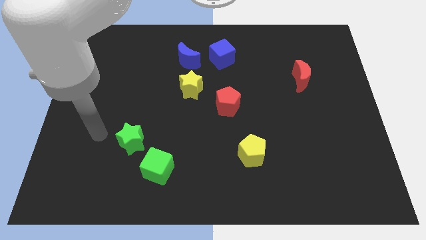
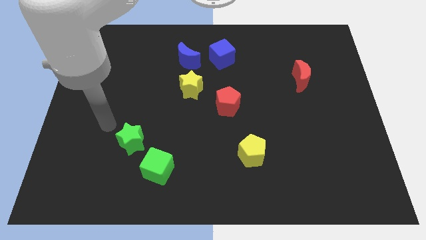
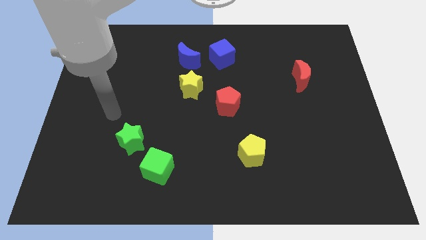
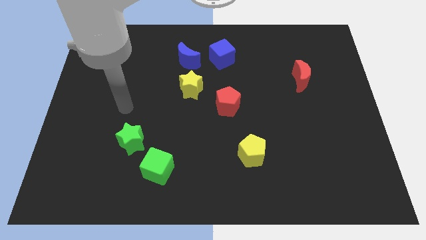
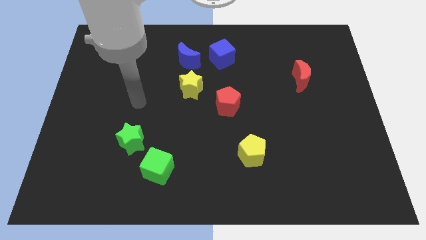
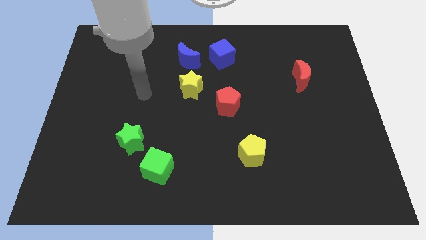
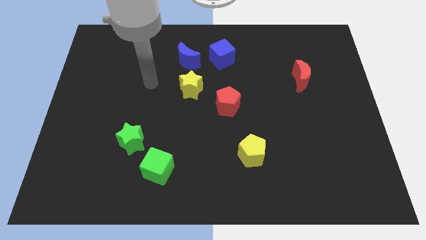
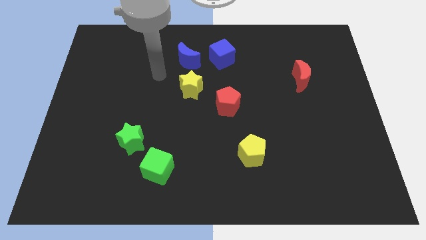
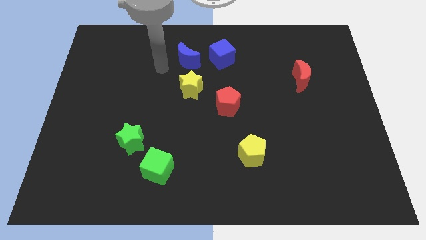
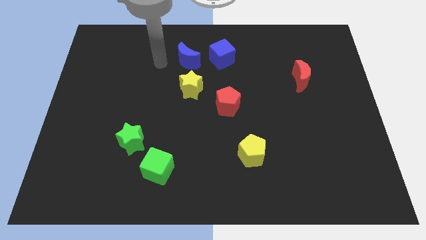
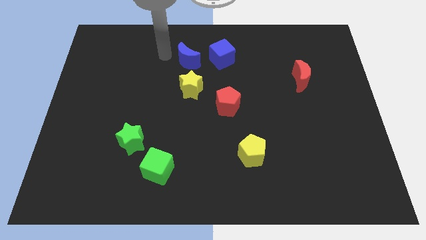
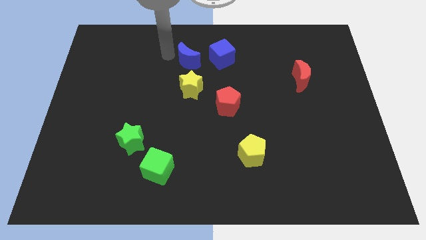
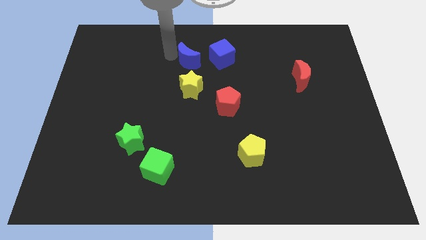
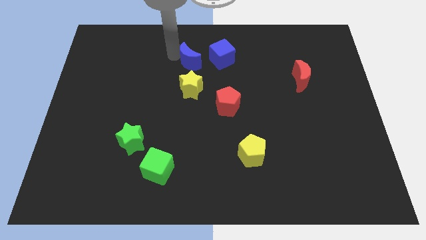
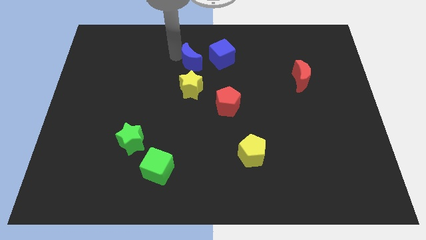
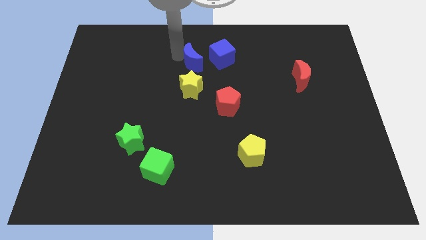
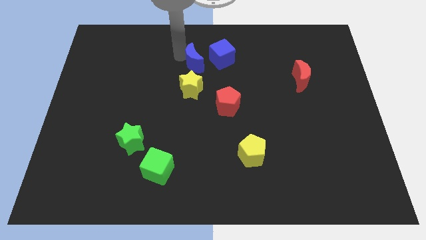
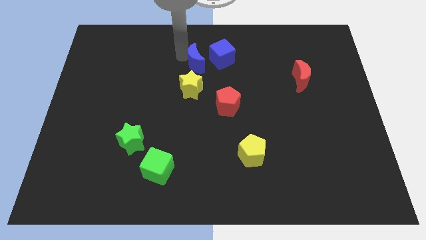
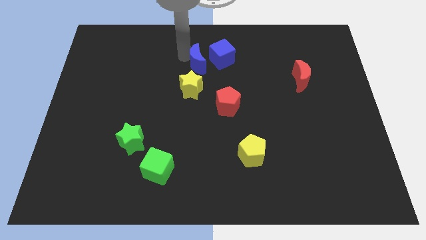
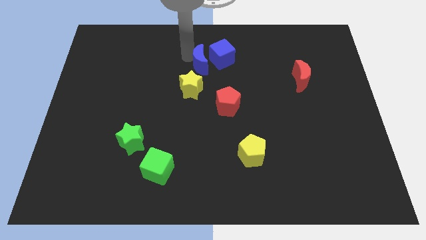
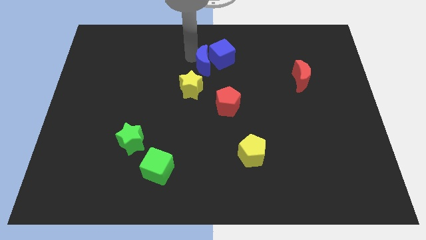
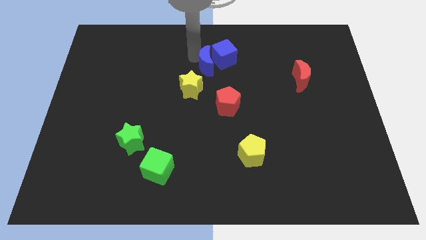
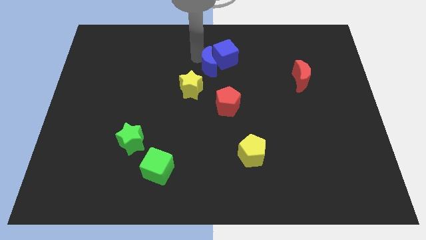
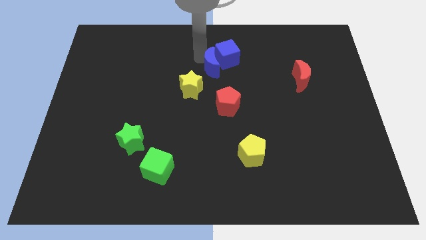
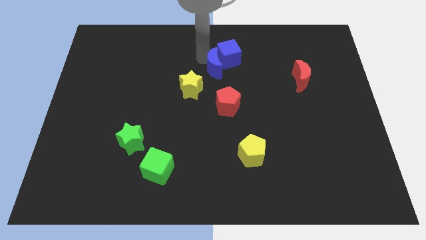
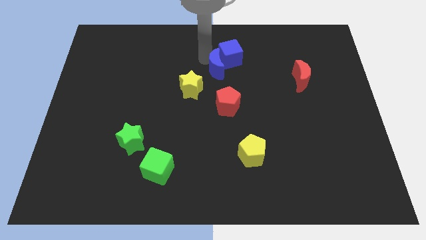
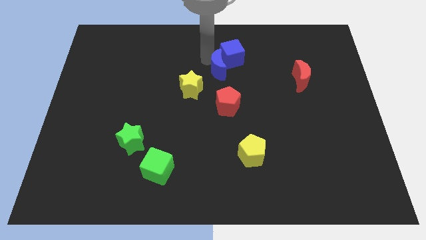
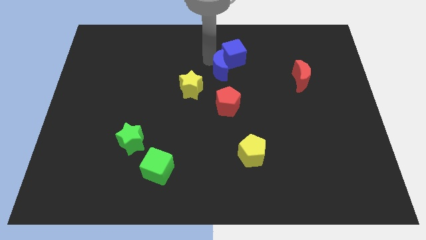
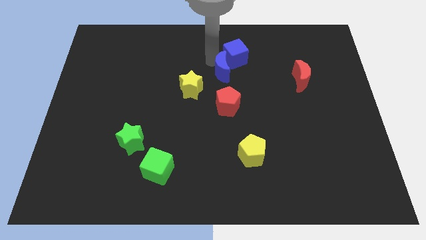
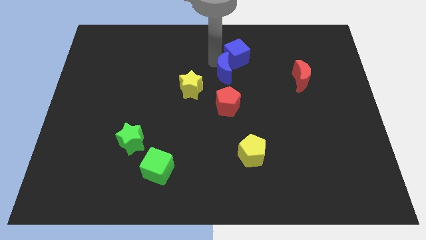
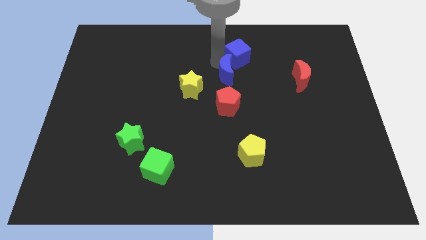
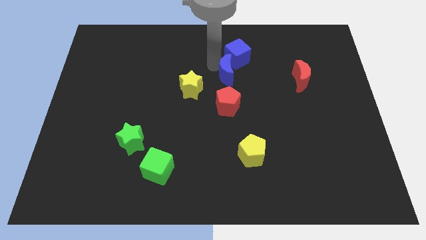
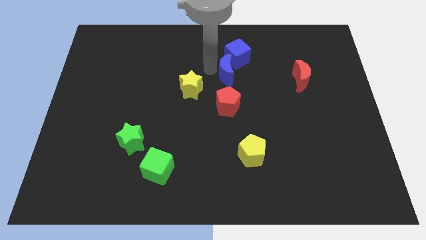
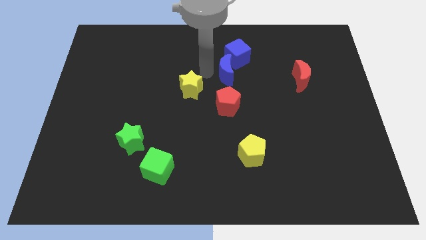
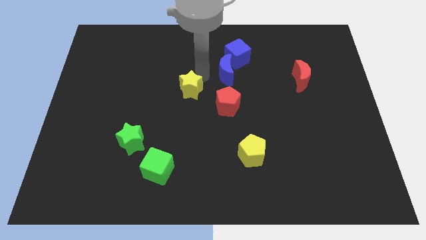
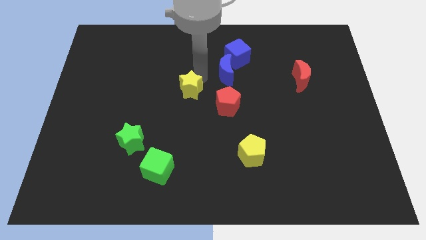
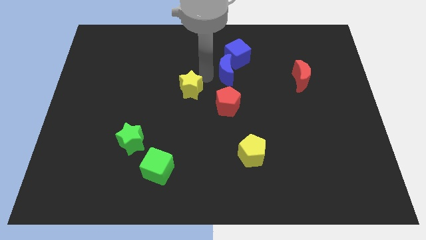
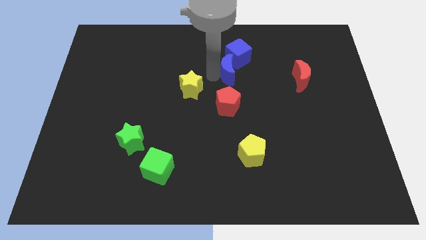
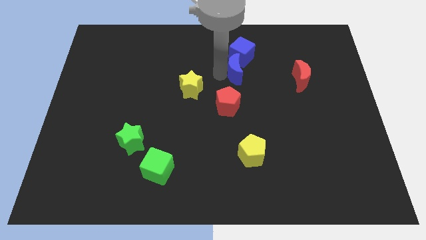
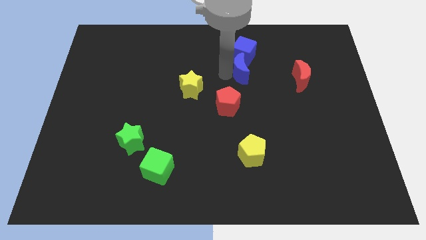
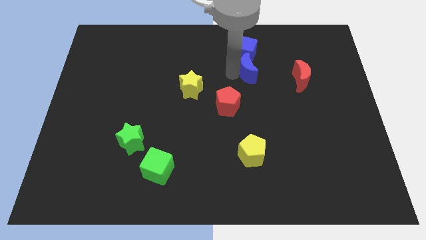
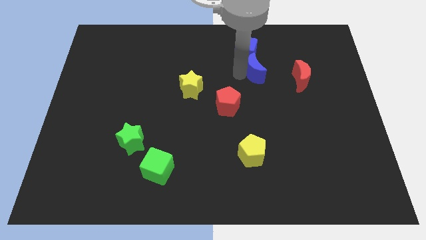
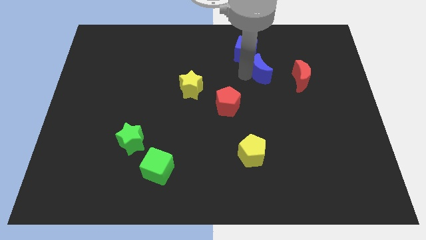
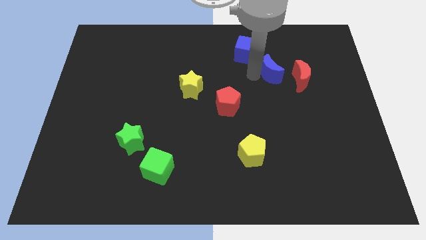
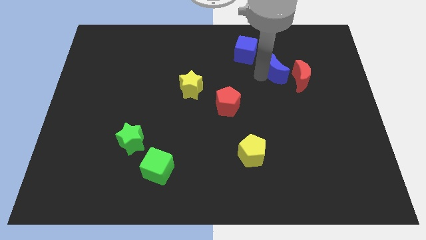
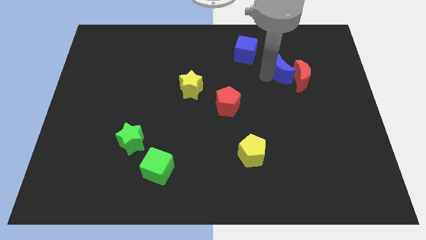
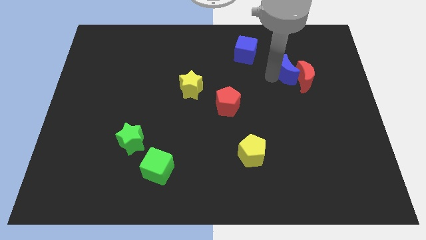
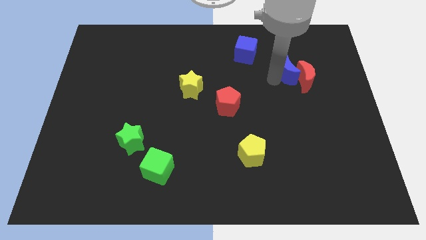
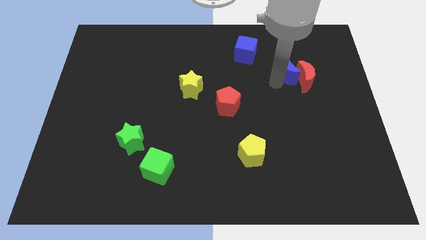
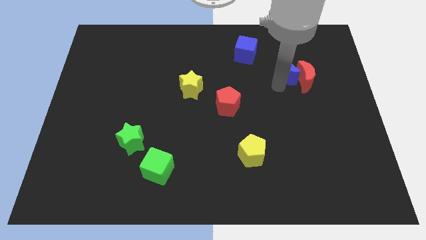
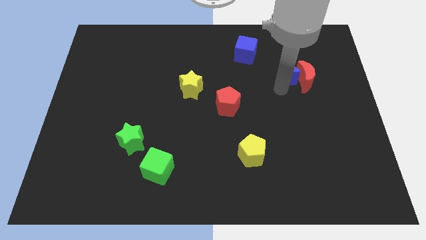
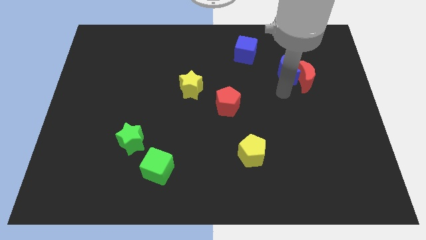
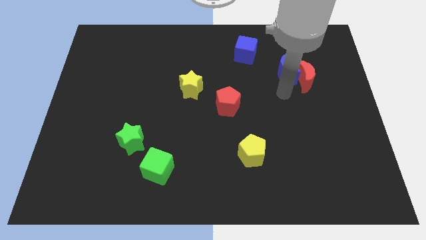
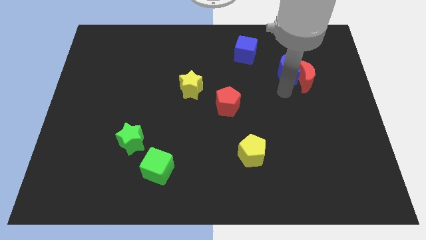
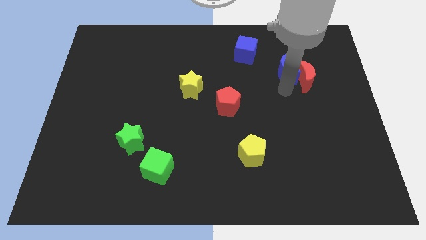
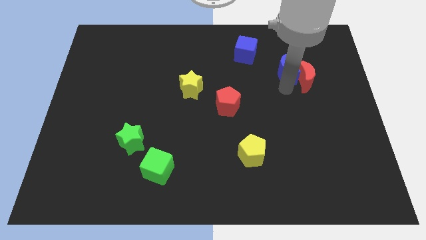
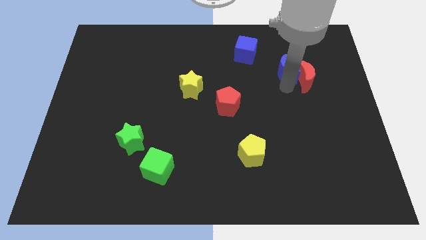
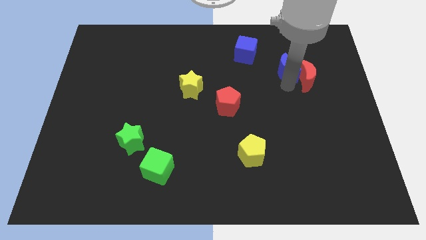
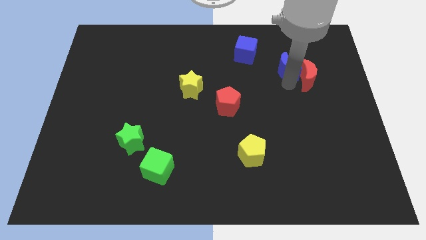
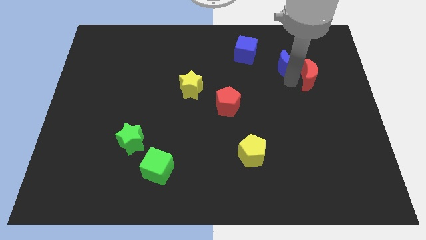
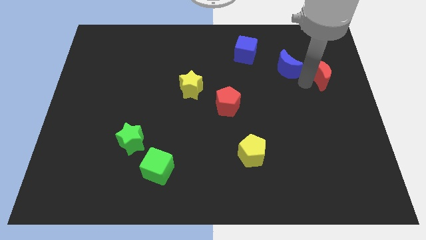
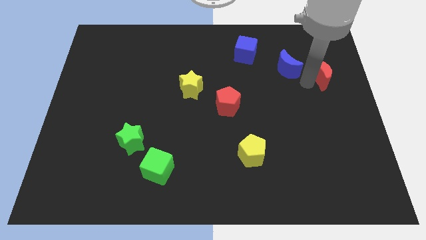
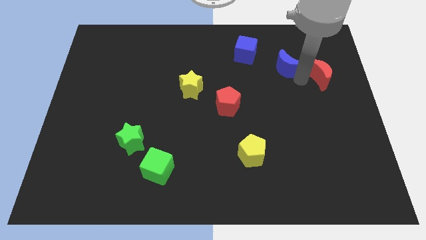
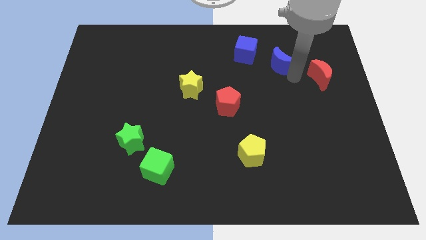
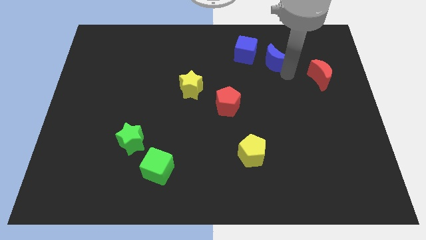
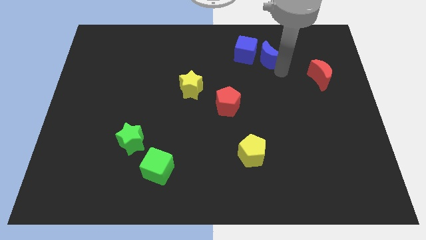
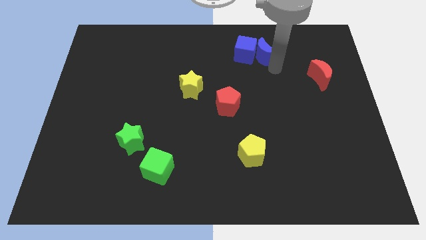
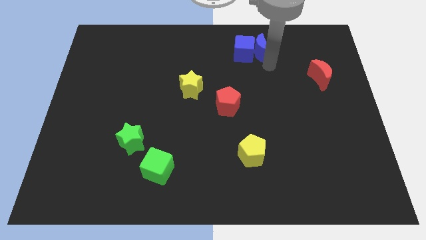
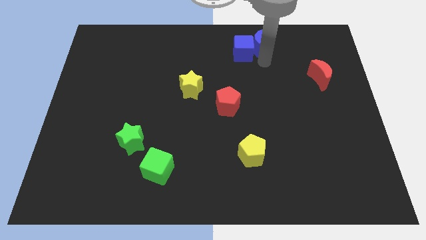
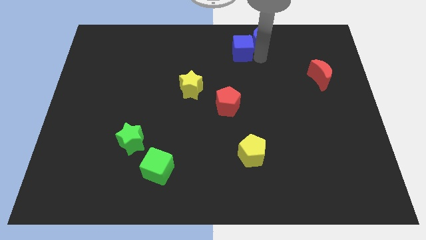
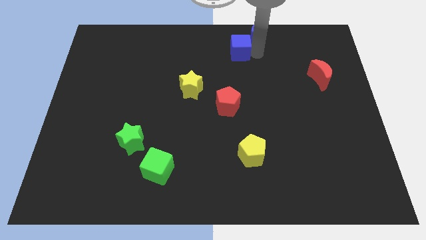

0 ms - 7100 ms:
put the blue moon to the top side
